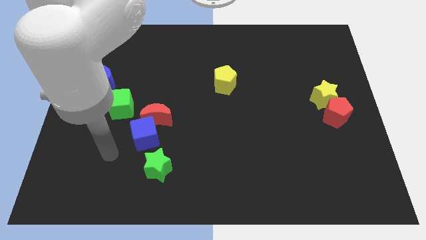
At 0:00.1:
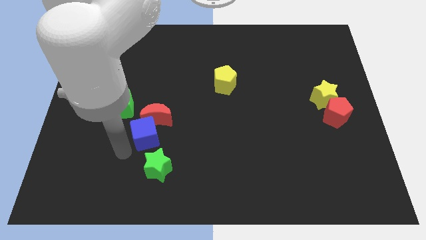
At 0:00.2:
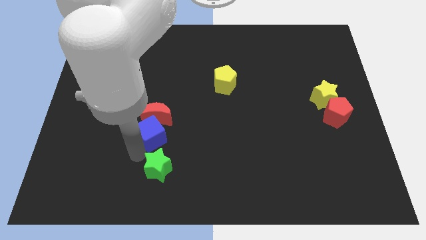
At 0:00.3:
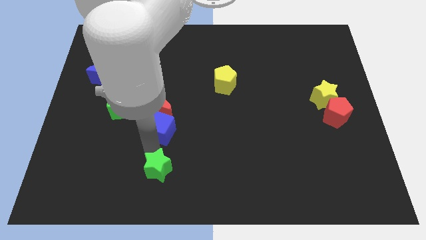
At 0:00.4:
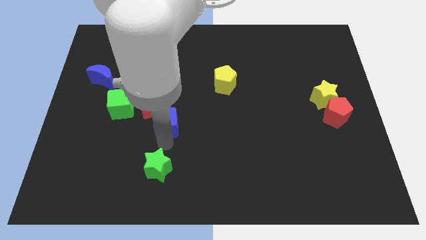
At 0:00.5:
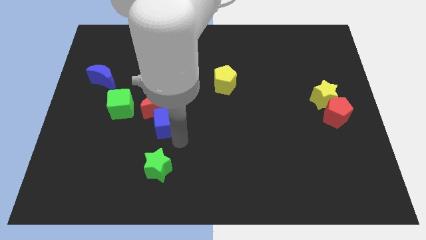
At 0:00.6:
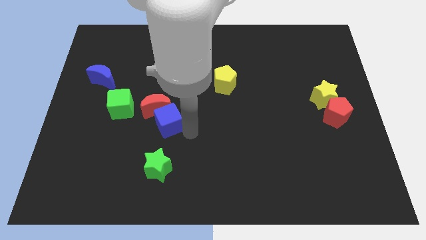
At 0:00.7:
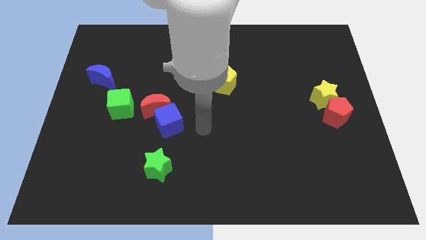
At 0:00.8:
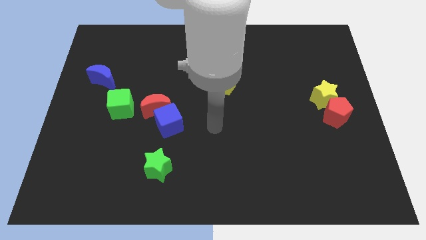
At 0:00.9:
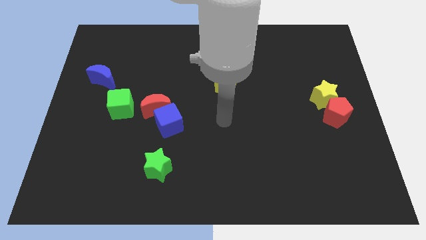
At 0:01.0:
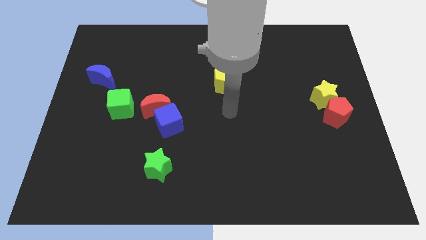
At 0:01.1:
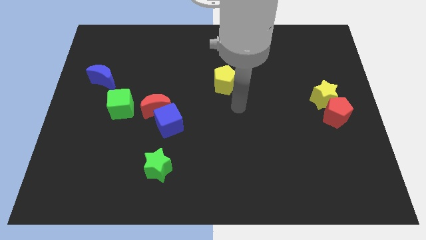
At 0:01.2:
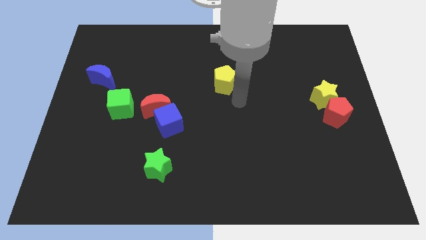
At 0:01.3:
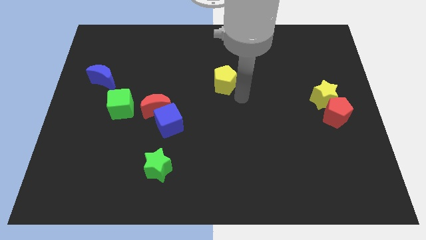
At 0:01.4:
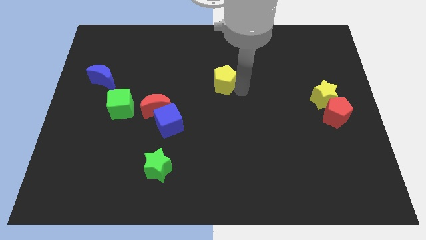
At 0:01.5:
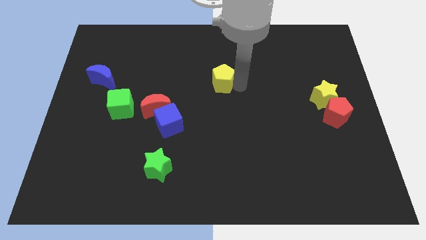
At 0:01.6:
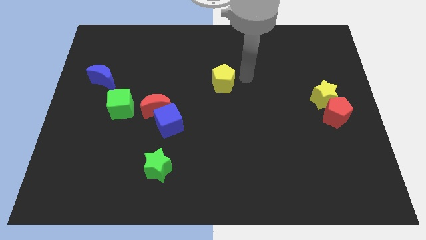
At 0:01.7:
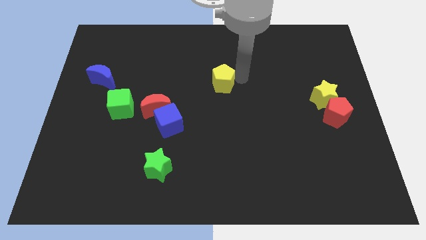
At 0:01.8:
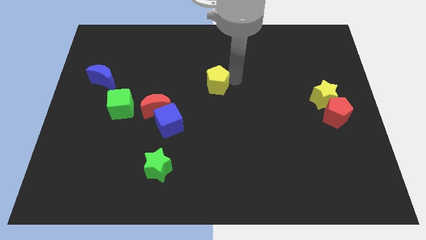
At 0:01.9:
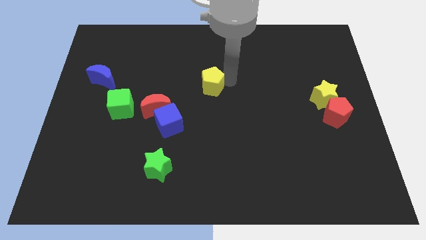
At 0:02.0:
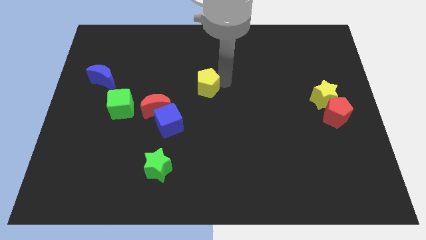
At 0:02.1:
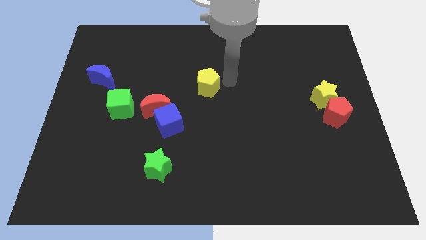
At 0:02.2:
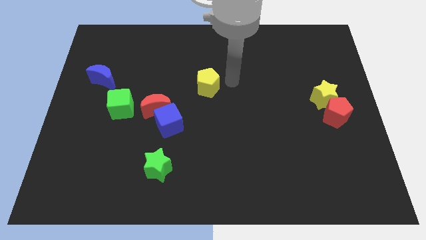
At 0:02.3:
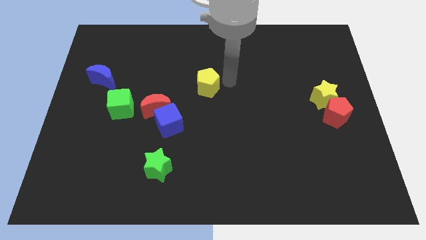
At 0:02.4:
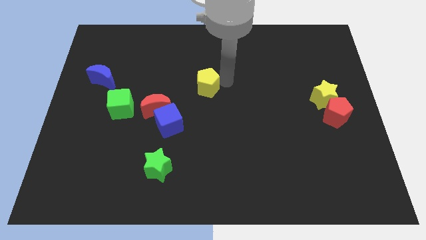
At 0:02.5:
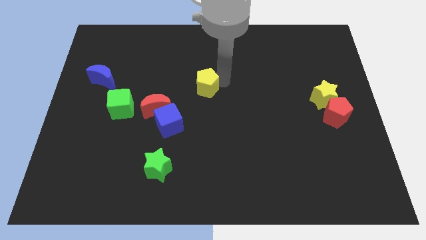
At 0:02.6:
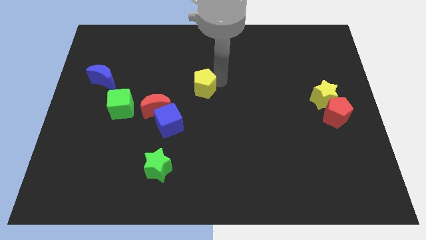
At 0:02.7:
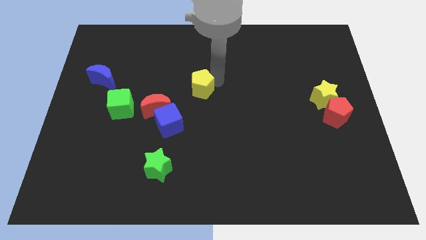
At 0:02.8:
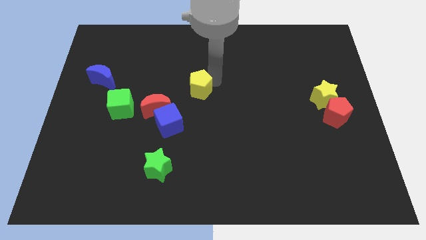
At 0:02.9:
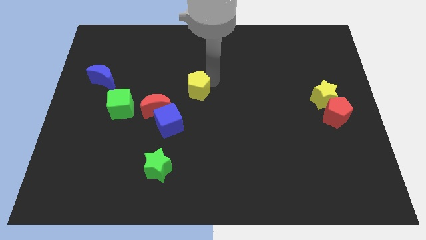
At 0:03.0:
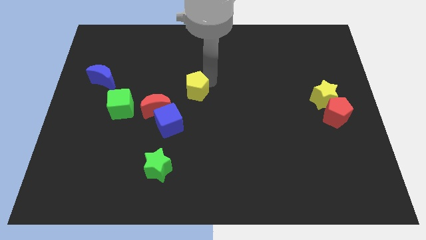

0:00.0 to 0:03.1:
slightly slide the yellow pentagon left

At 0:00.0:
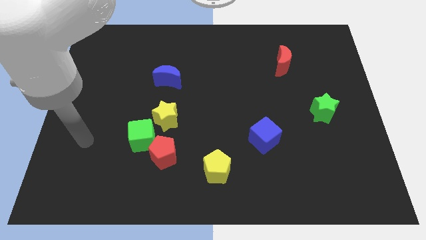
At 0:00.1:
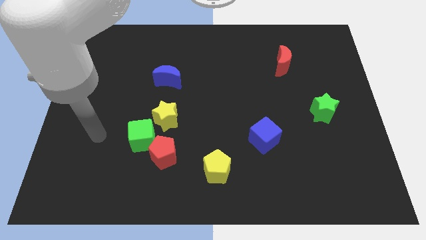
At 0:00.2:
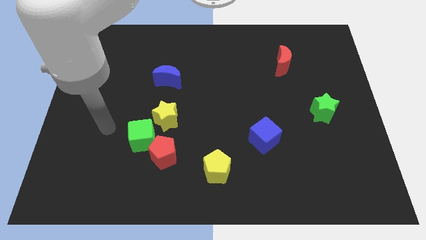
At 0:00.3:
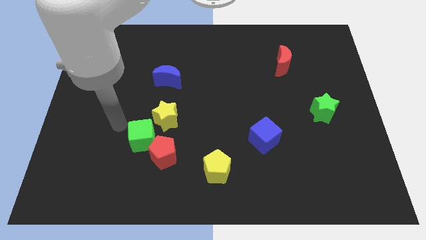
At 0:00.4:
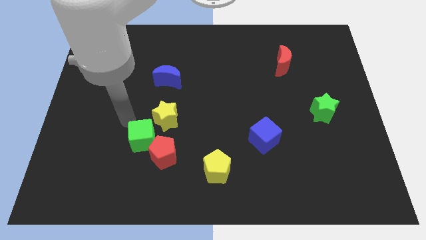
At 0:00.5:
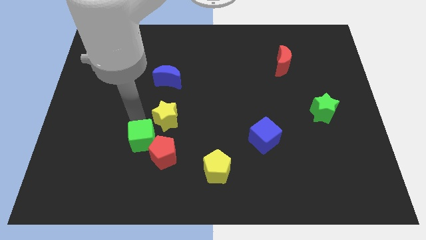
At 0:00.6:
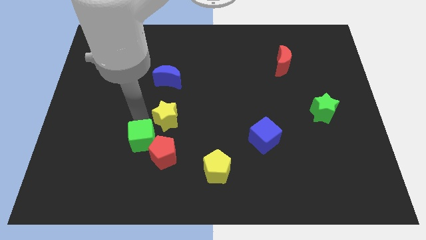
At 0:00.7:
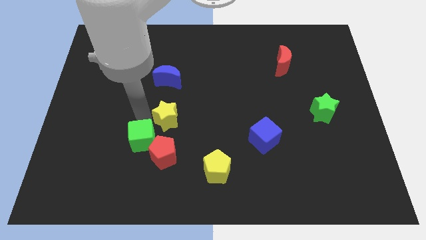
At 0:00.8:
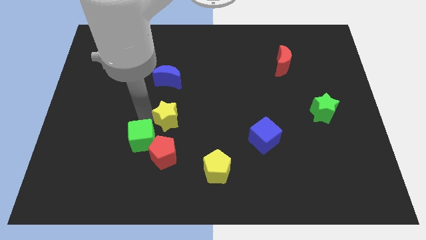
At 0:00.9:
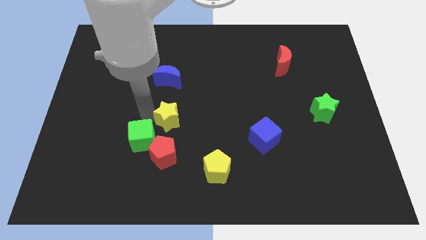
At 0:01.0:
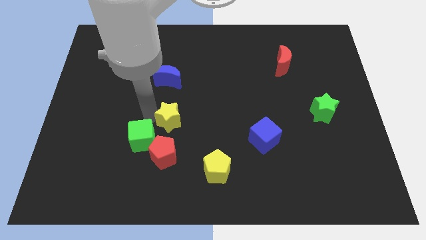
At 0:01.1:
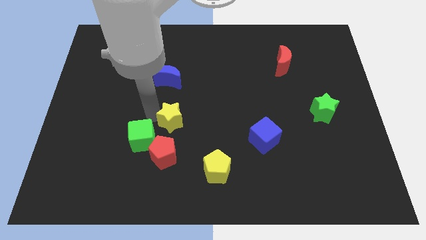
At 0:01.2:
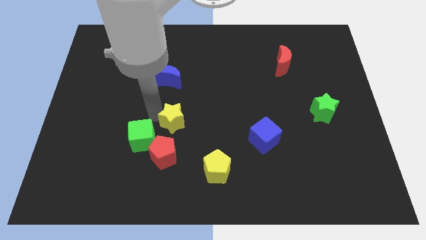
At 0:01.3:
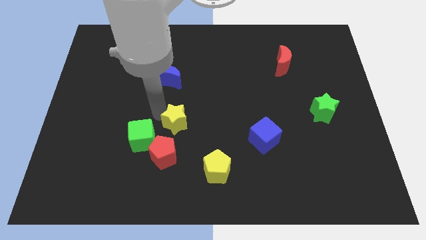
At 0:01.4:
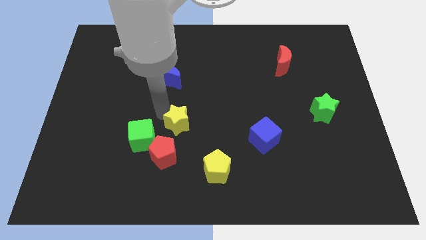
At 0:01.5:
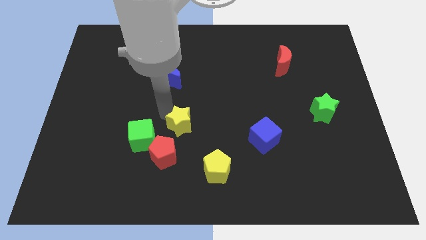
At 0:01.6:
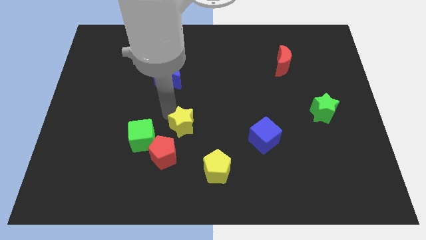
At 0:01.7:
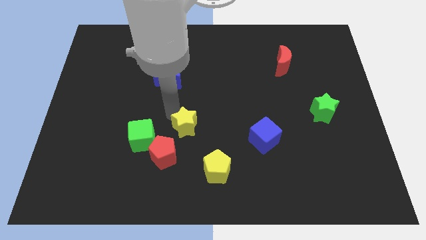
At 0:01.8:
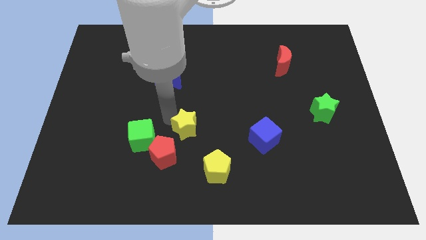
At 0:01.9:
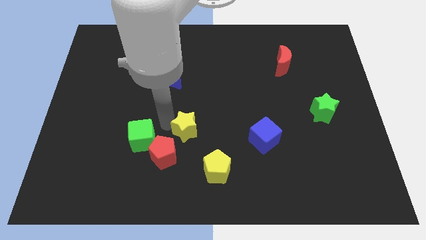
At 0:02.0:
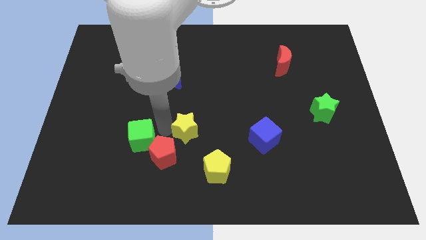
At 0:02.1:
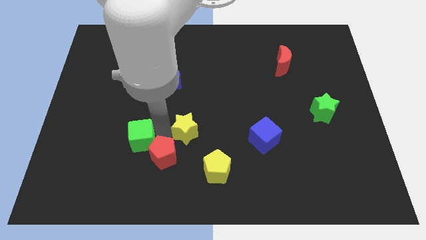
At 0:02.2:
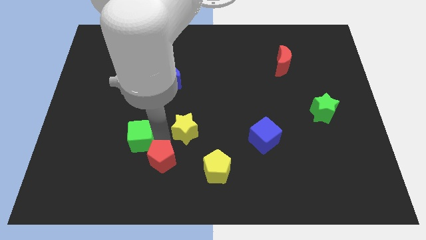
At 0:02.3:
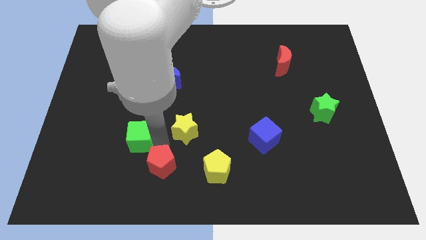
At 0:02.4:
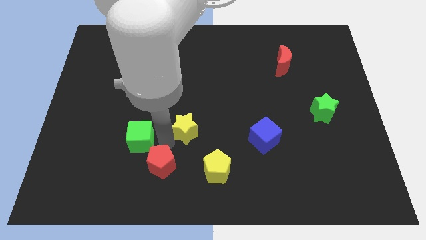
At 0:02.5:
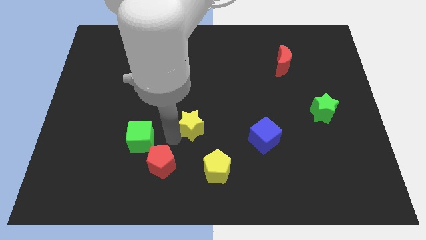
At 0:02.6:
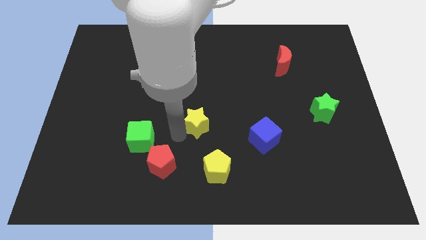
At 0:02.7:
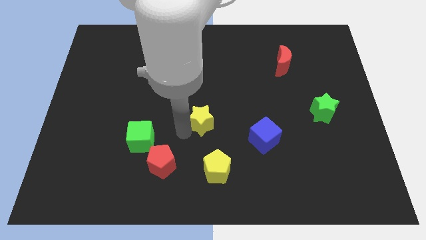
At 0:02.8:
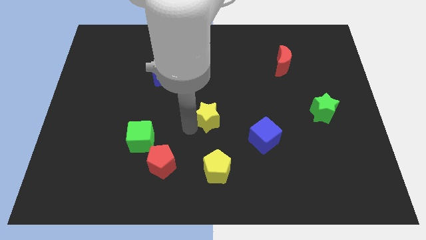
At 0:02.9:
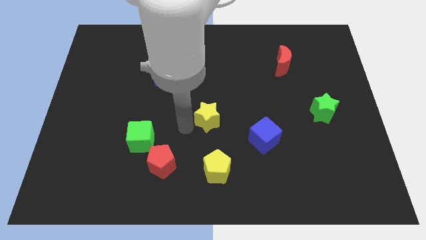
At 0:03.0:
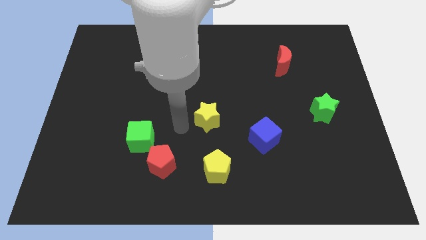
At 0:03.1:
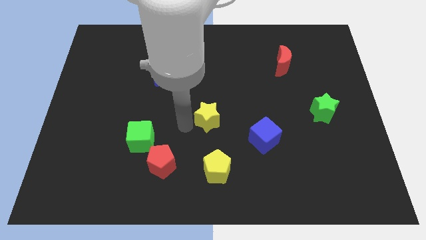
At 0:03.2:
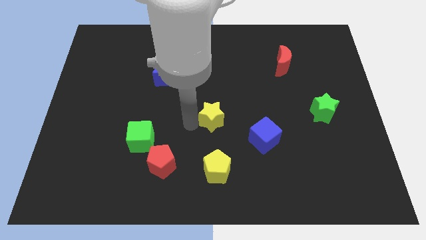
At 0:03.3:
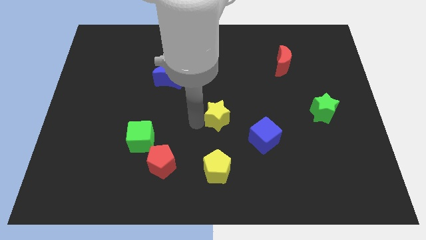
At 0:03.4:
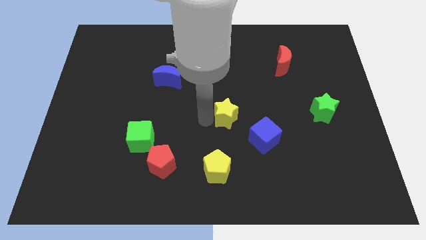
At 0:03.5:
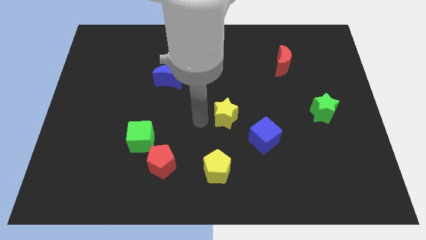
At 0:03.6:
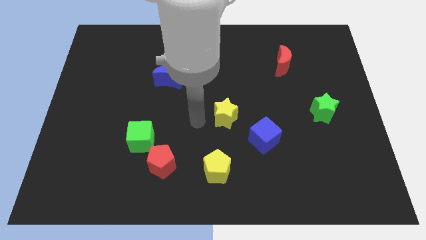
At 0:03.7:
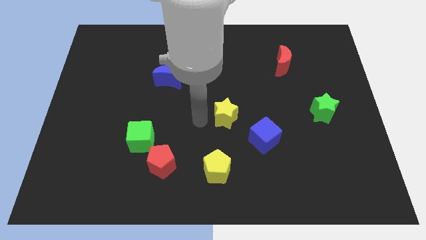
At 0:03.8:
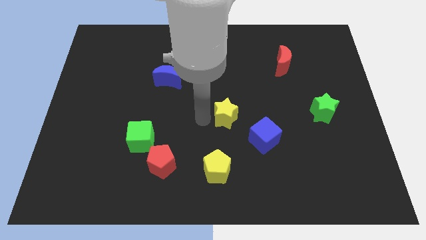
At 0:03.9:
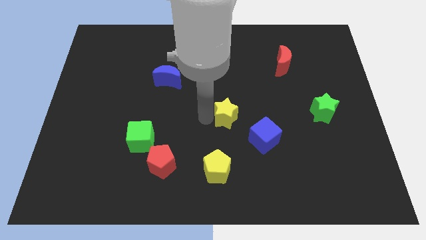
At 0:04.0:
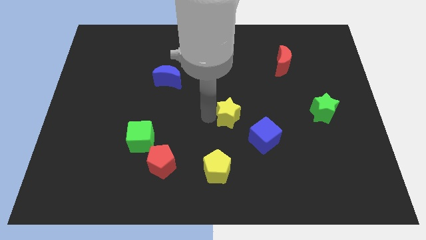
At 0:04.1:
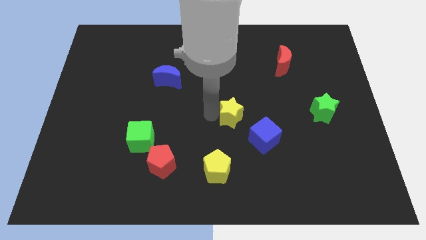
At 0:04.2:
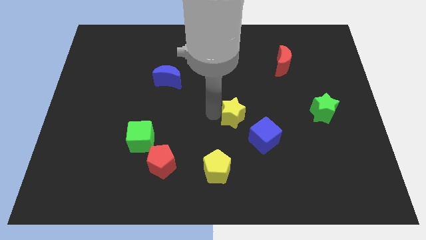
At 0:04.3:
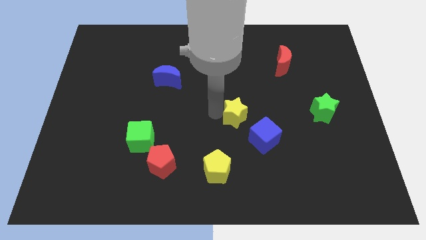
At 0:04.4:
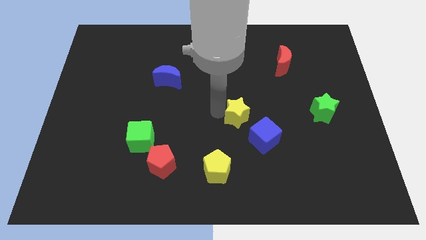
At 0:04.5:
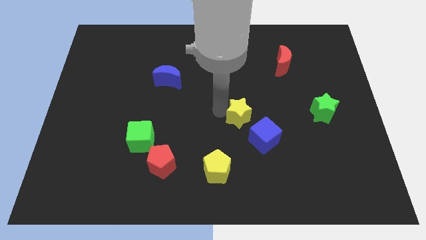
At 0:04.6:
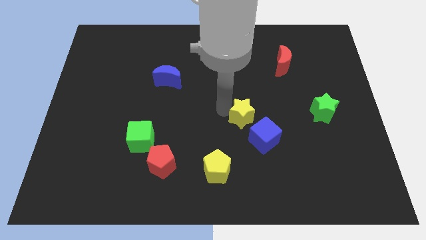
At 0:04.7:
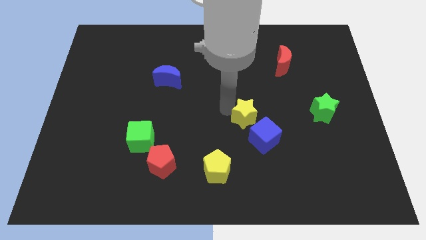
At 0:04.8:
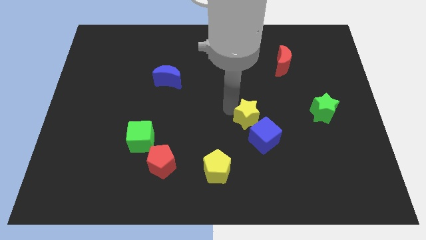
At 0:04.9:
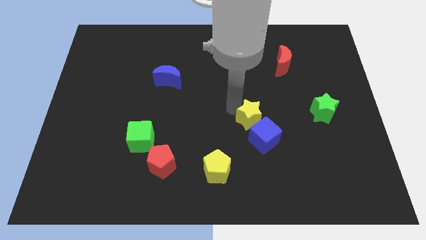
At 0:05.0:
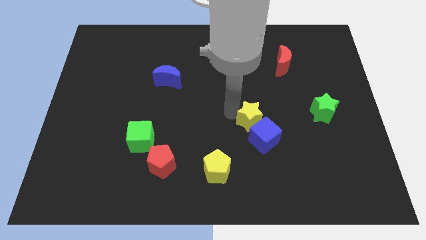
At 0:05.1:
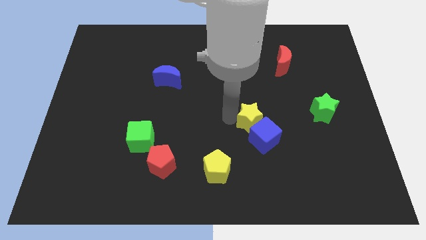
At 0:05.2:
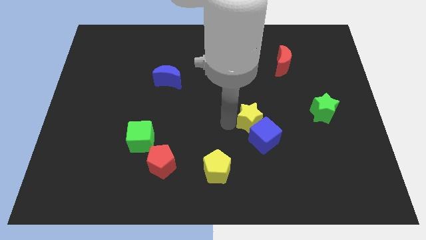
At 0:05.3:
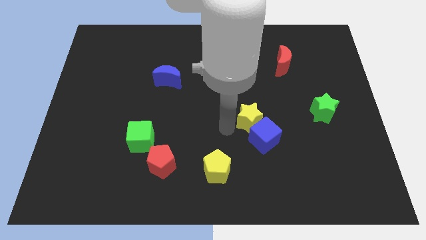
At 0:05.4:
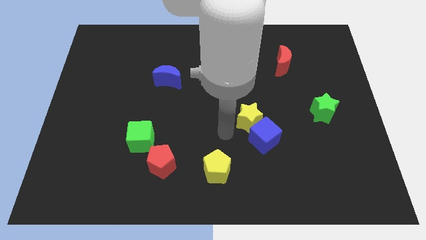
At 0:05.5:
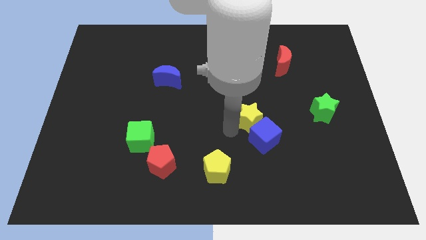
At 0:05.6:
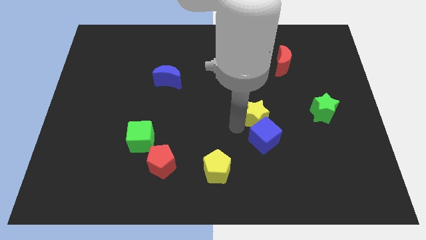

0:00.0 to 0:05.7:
slide the yellow star right
